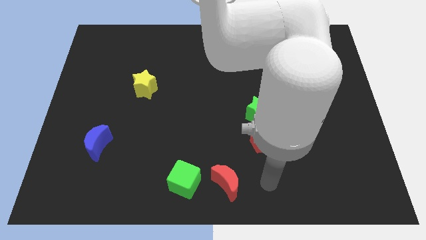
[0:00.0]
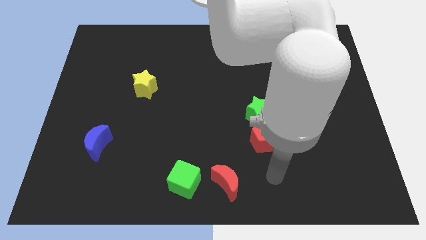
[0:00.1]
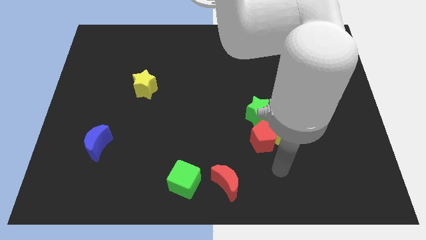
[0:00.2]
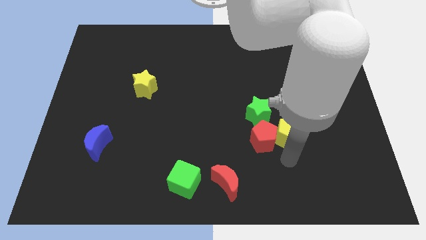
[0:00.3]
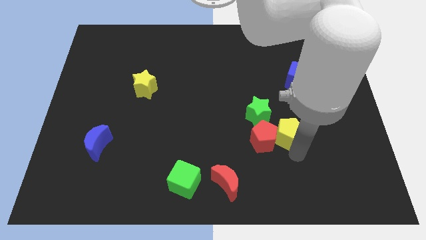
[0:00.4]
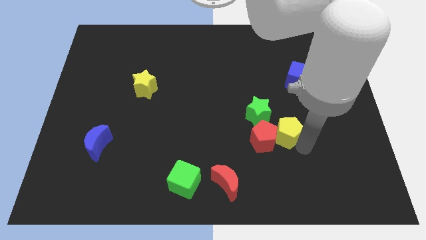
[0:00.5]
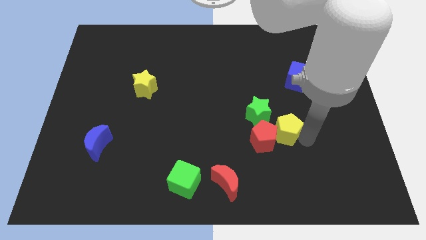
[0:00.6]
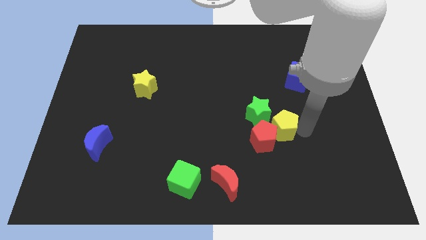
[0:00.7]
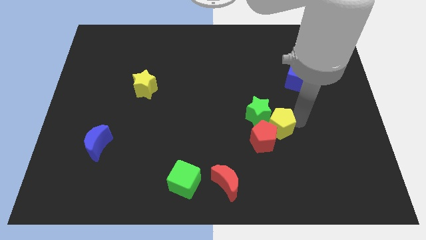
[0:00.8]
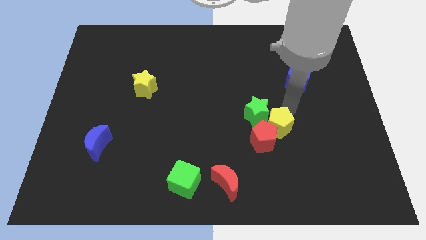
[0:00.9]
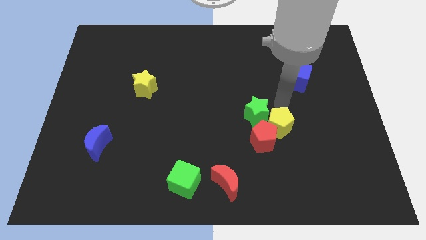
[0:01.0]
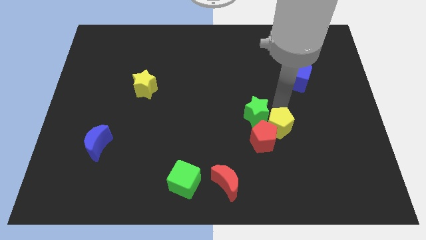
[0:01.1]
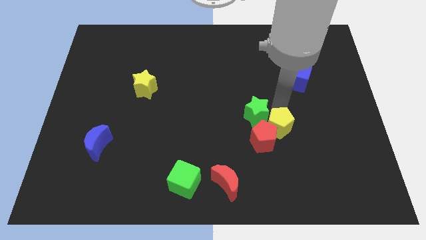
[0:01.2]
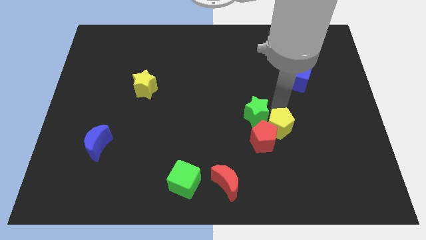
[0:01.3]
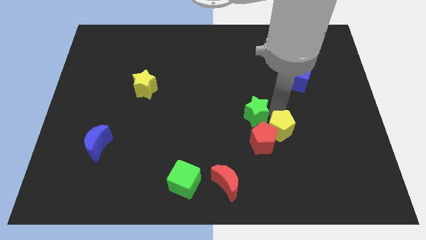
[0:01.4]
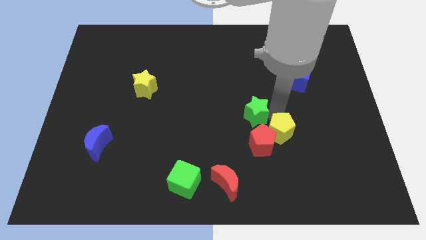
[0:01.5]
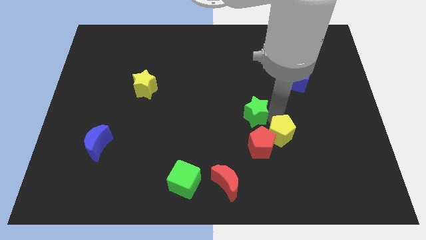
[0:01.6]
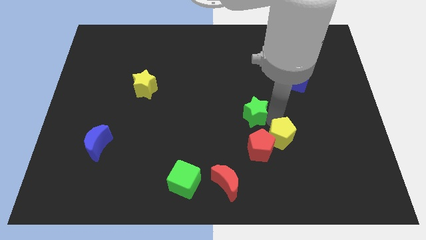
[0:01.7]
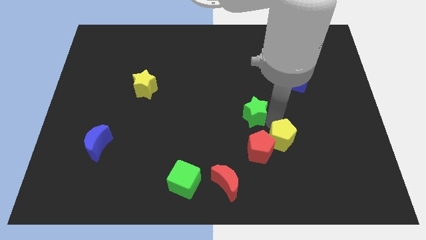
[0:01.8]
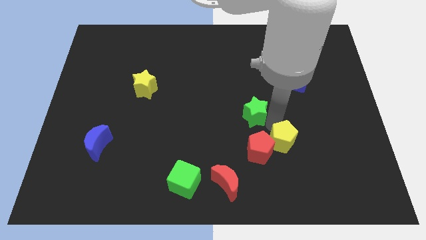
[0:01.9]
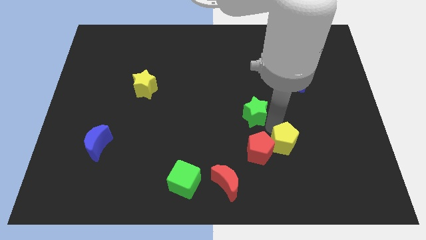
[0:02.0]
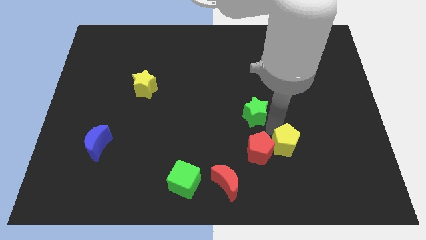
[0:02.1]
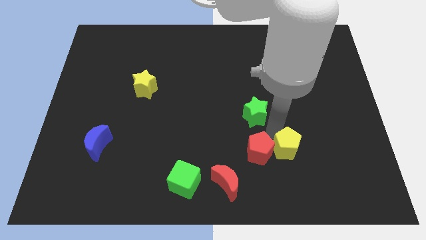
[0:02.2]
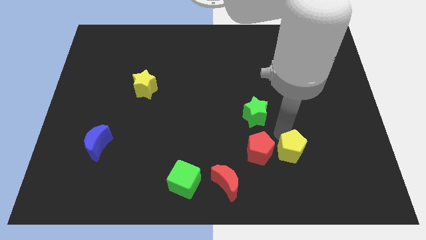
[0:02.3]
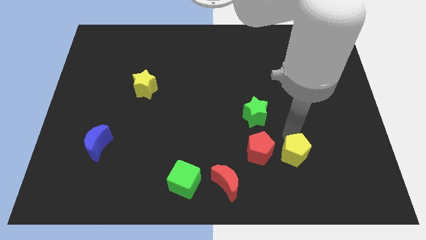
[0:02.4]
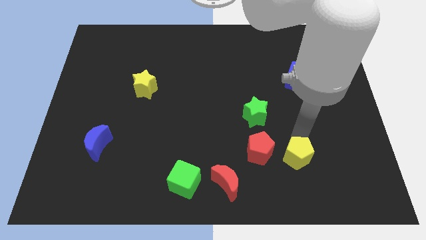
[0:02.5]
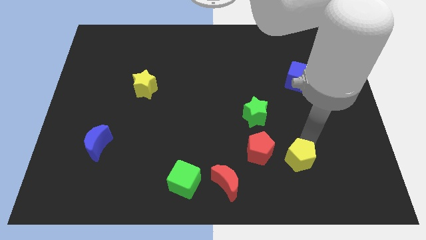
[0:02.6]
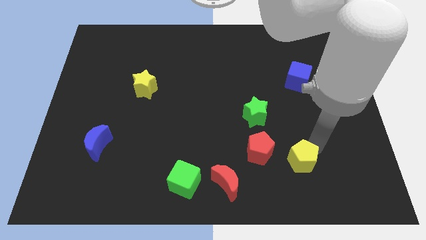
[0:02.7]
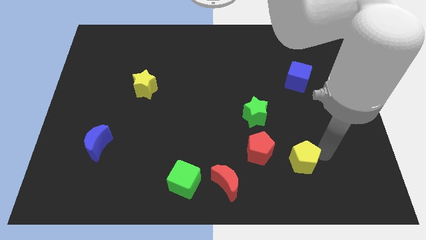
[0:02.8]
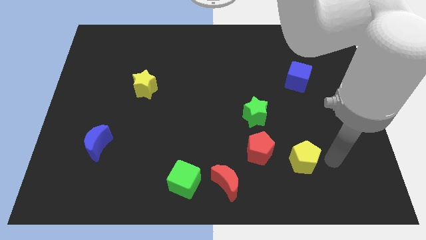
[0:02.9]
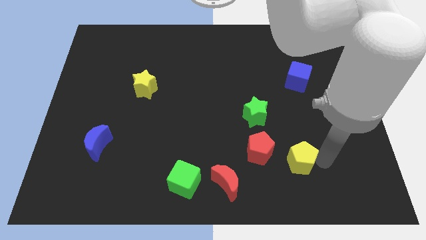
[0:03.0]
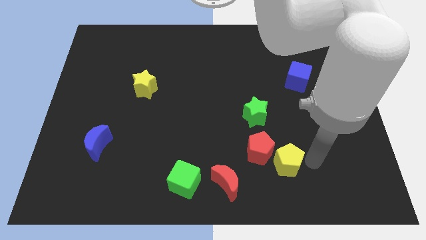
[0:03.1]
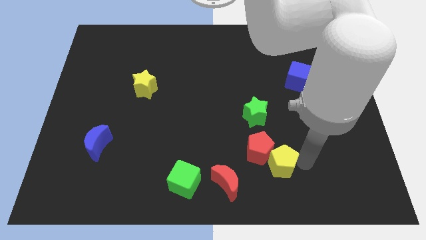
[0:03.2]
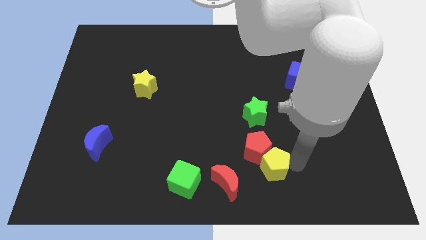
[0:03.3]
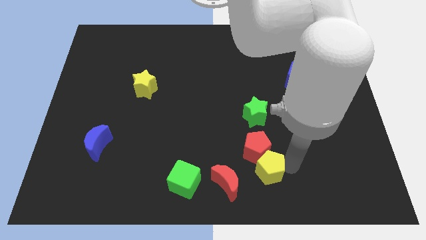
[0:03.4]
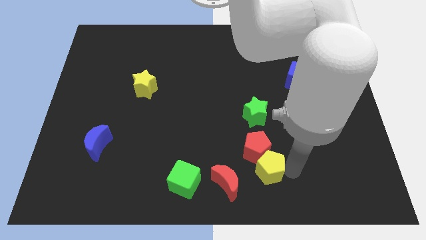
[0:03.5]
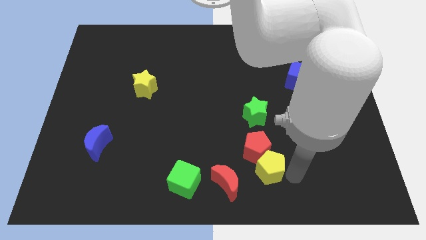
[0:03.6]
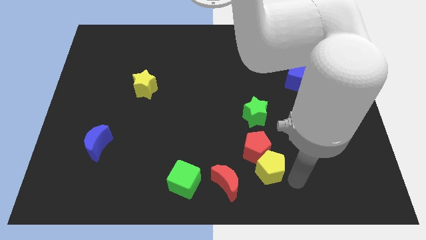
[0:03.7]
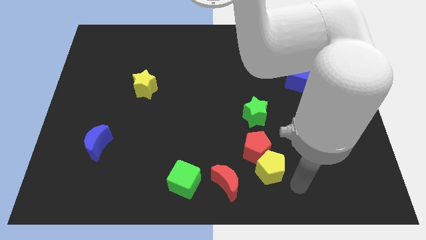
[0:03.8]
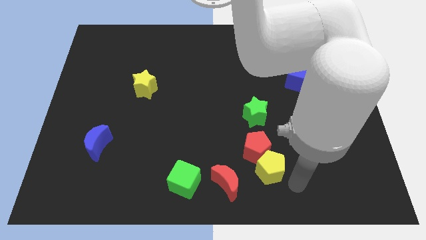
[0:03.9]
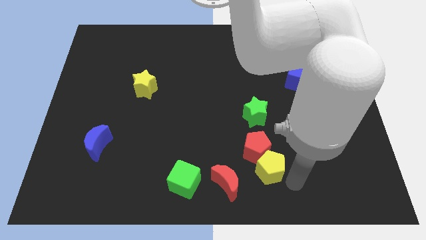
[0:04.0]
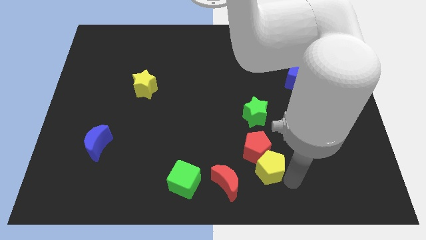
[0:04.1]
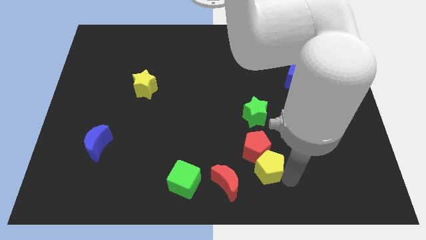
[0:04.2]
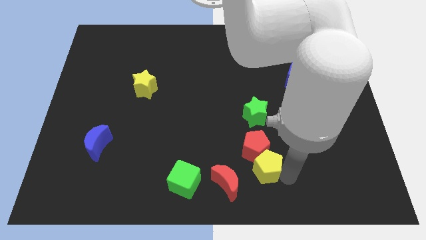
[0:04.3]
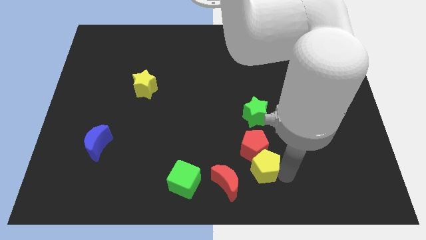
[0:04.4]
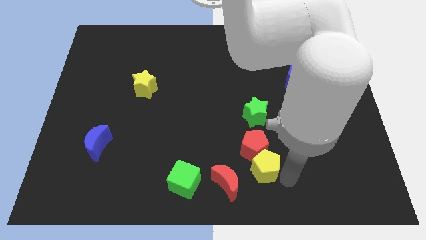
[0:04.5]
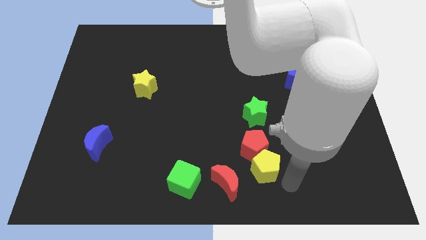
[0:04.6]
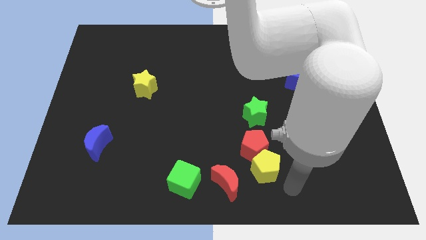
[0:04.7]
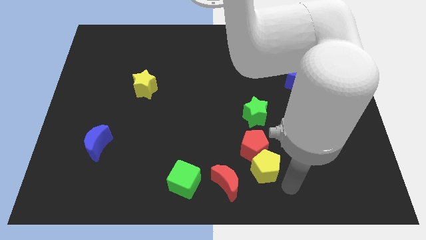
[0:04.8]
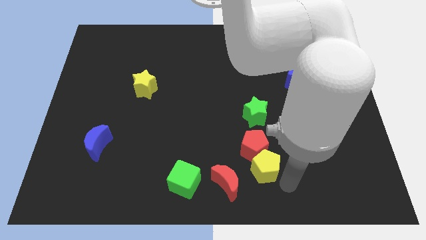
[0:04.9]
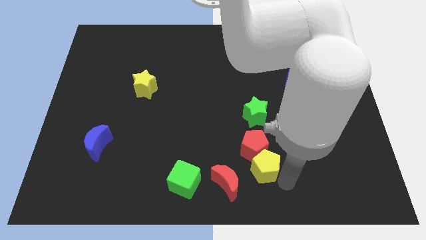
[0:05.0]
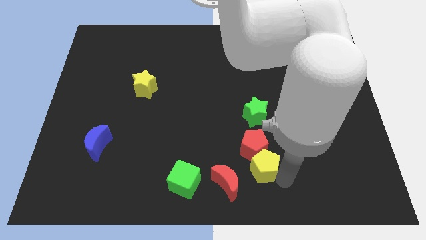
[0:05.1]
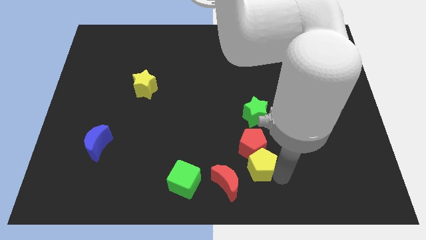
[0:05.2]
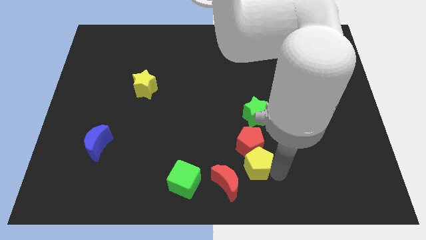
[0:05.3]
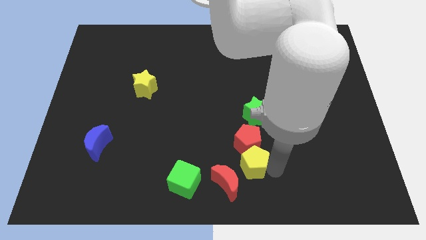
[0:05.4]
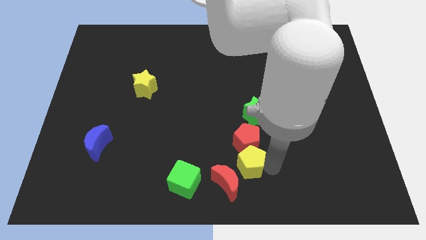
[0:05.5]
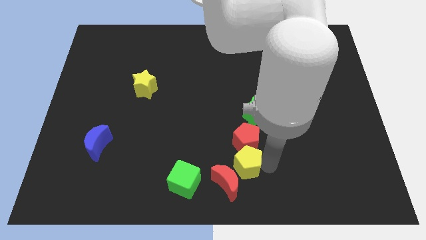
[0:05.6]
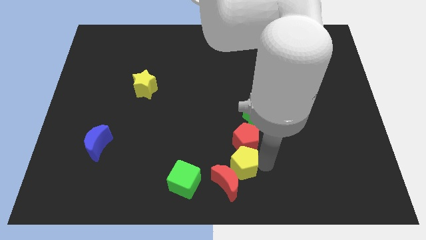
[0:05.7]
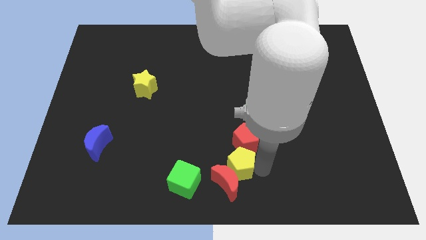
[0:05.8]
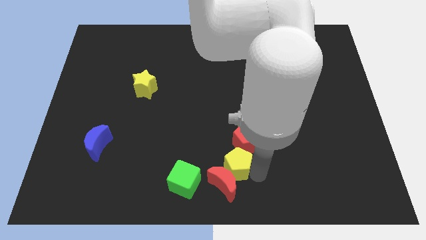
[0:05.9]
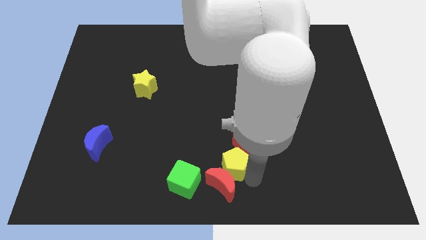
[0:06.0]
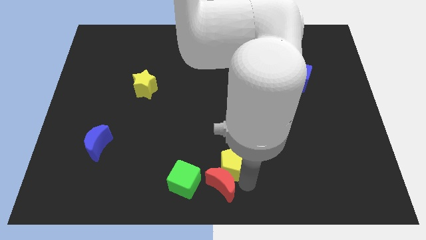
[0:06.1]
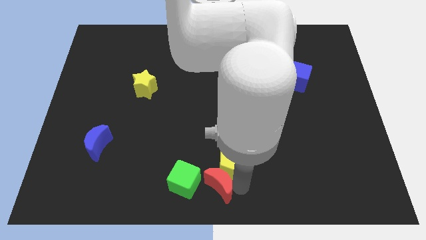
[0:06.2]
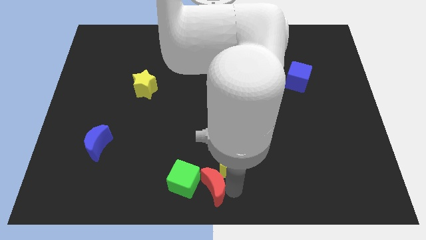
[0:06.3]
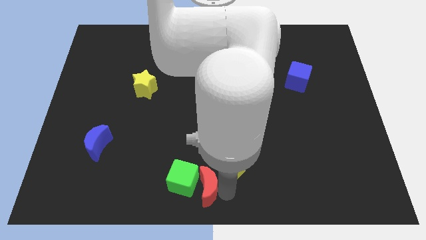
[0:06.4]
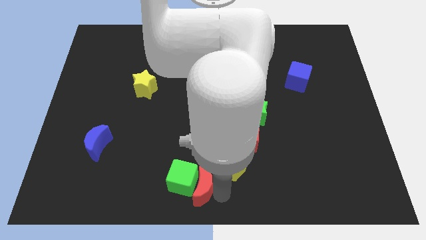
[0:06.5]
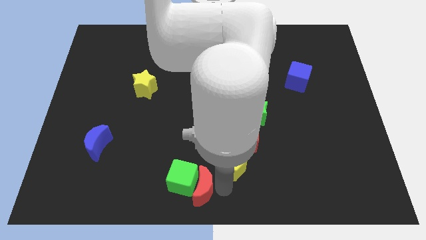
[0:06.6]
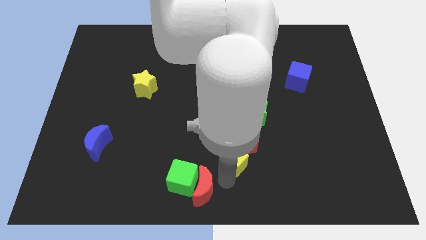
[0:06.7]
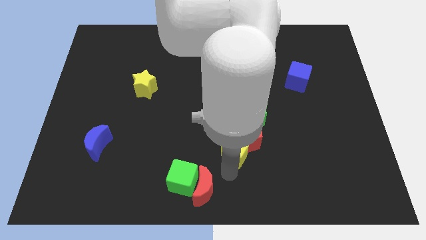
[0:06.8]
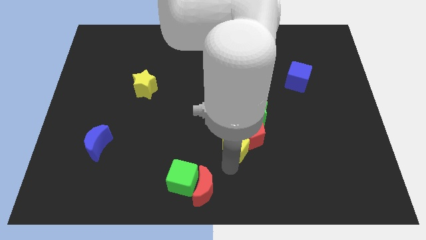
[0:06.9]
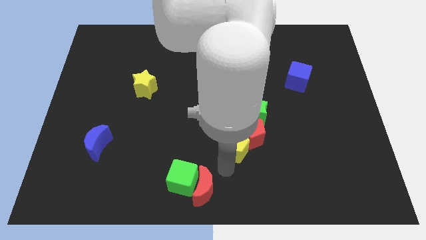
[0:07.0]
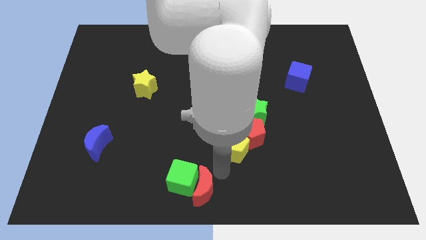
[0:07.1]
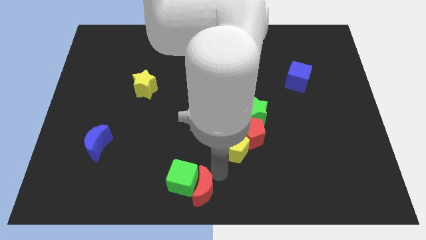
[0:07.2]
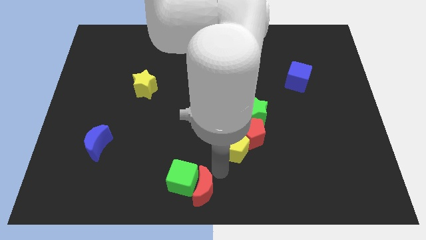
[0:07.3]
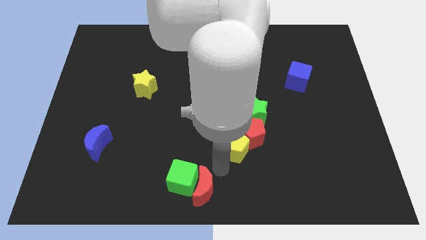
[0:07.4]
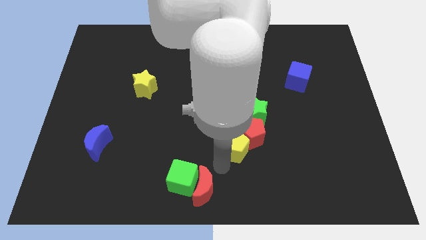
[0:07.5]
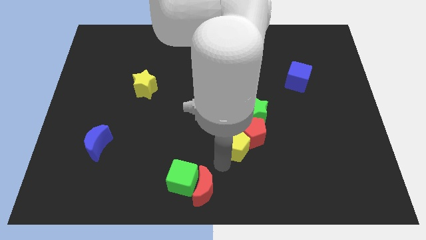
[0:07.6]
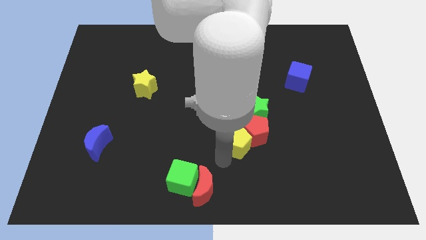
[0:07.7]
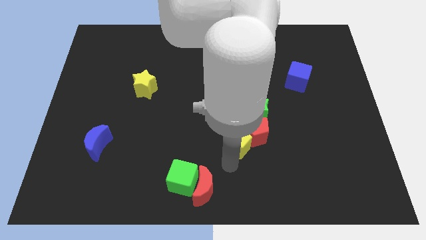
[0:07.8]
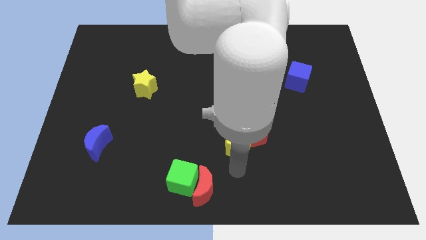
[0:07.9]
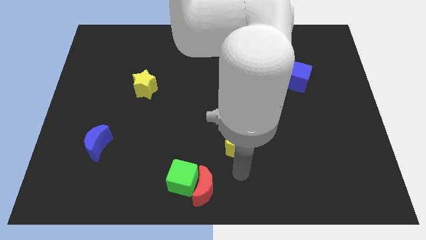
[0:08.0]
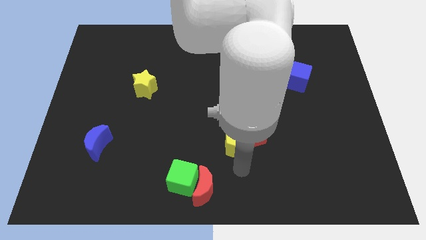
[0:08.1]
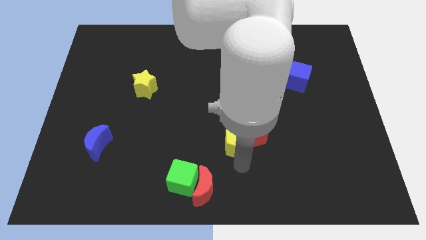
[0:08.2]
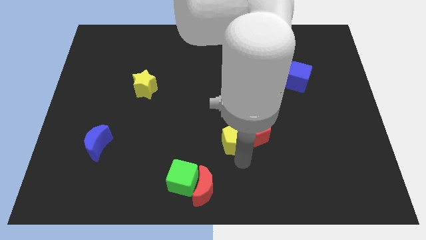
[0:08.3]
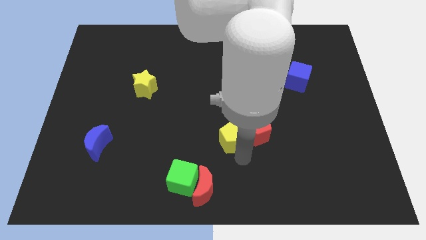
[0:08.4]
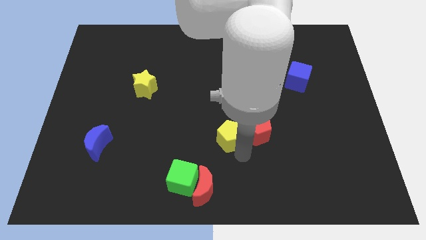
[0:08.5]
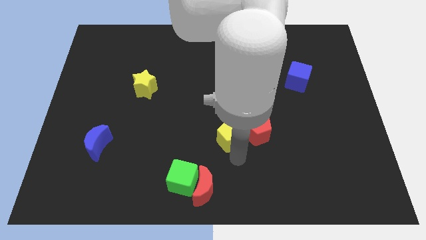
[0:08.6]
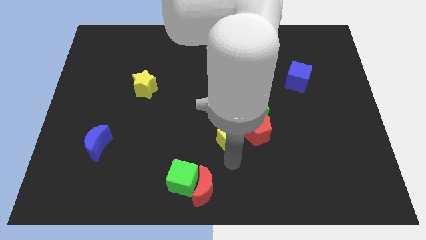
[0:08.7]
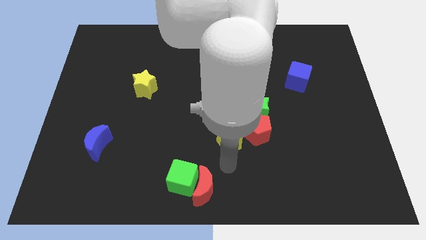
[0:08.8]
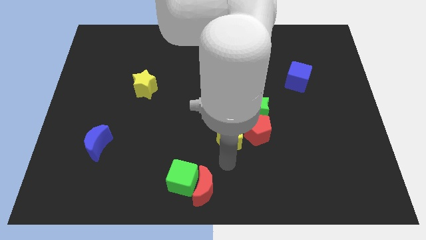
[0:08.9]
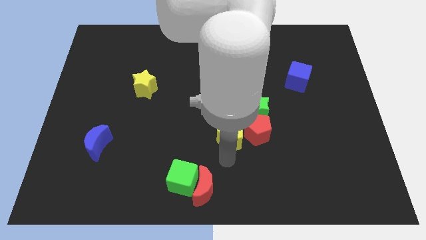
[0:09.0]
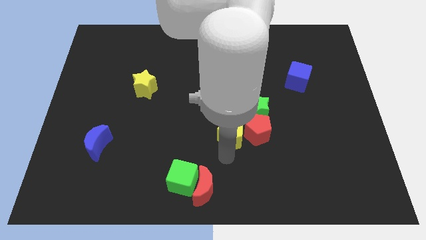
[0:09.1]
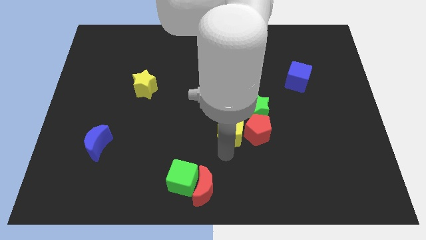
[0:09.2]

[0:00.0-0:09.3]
move the yellow pentagon diagonally up and to the left of the red pentagon
